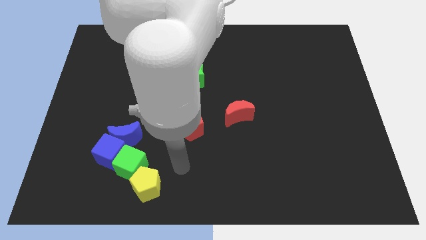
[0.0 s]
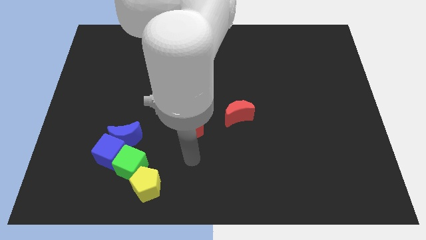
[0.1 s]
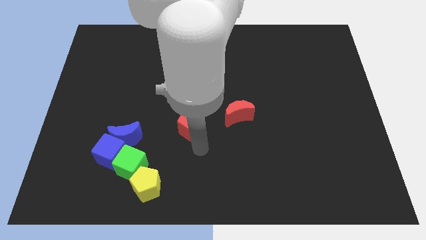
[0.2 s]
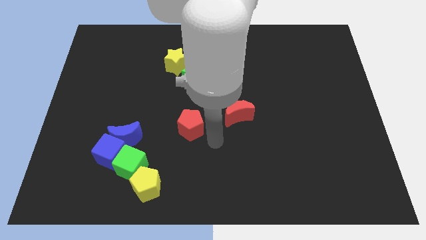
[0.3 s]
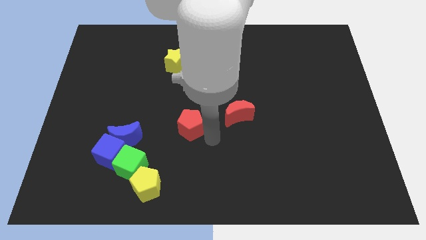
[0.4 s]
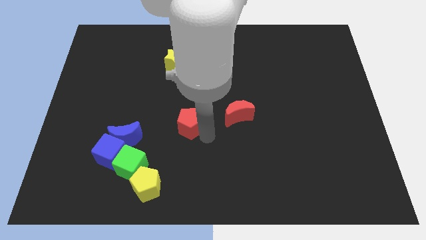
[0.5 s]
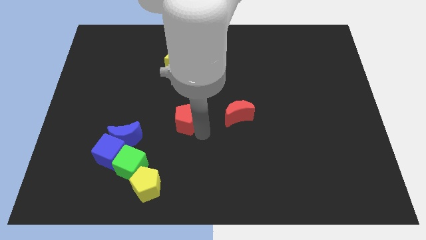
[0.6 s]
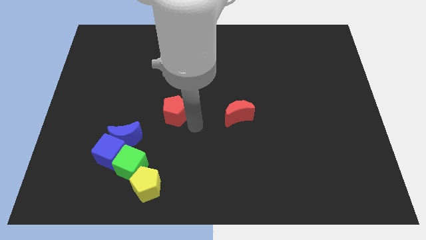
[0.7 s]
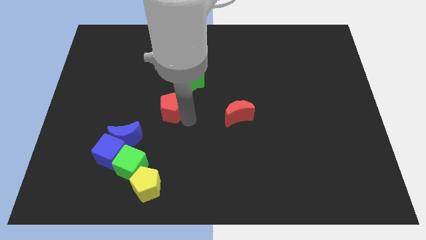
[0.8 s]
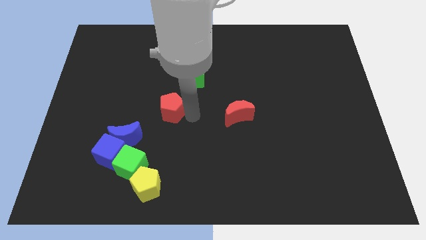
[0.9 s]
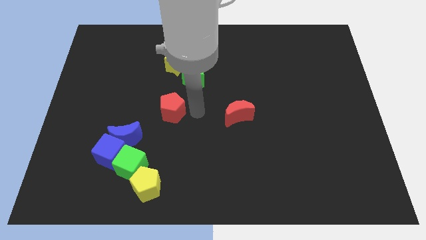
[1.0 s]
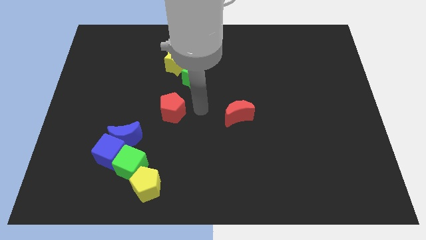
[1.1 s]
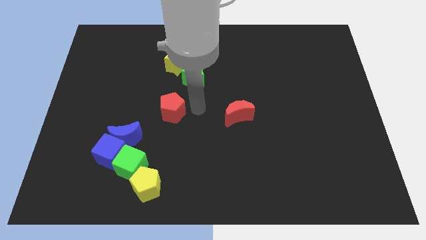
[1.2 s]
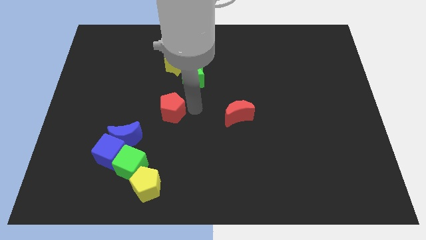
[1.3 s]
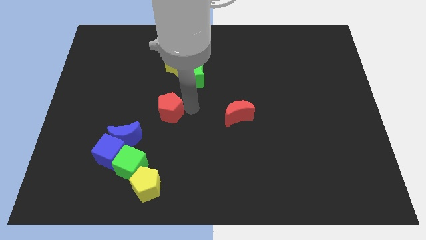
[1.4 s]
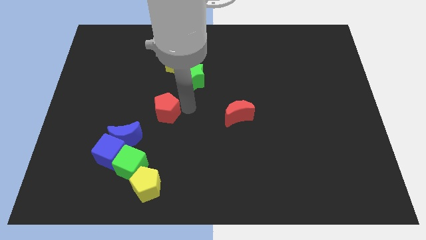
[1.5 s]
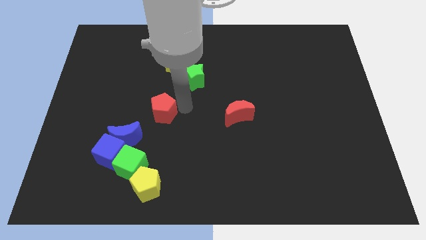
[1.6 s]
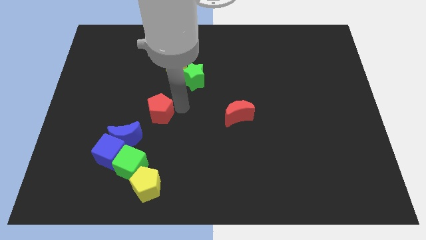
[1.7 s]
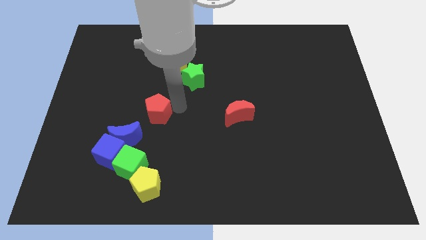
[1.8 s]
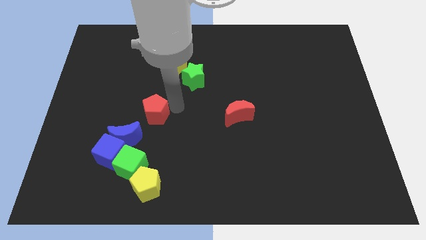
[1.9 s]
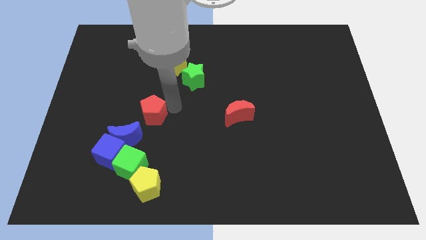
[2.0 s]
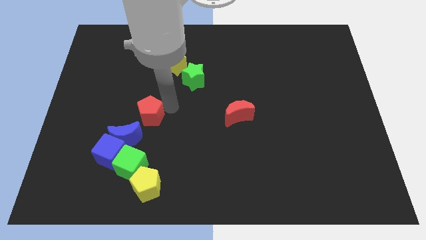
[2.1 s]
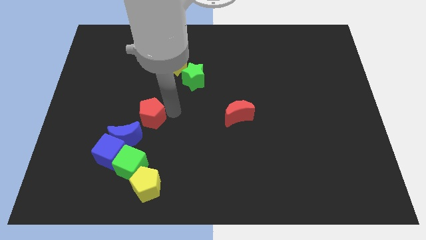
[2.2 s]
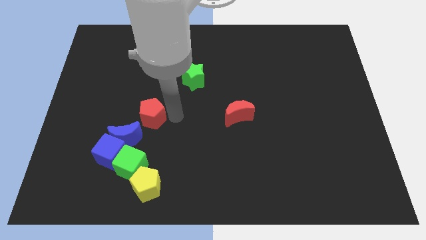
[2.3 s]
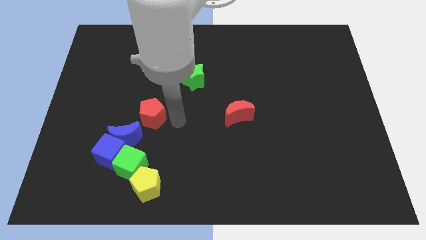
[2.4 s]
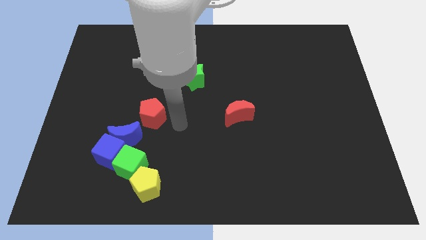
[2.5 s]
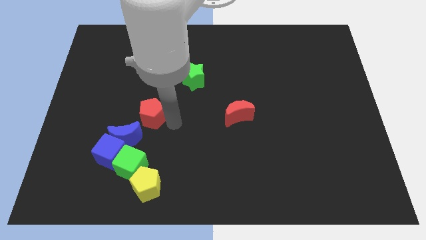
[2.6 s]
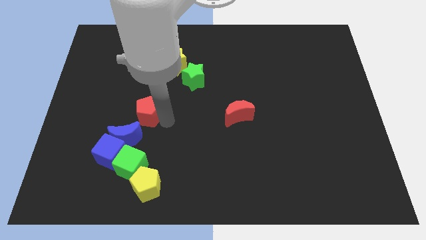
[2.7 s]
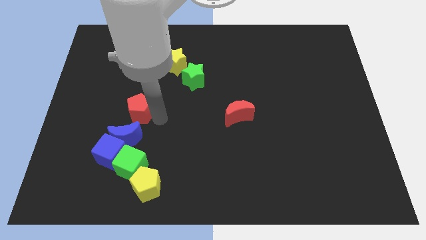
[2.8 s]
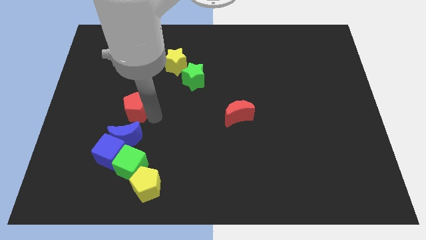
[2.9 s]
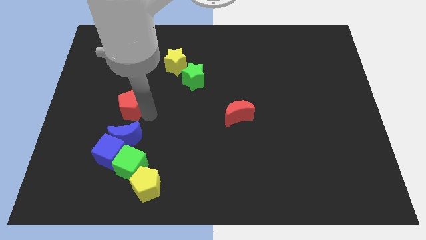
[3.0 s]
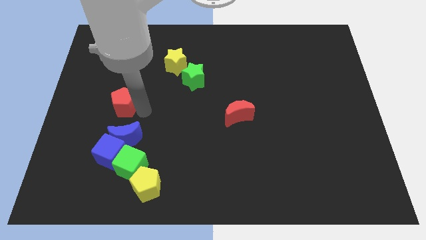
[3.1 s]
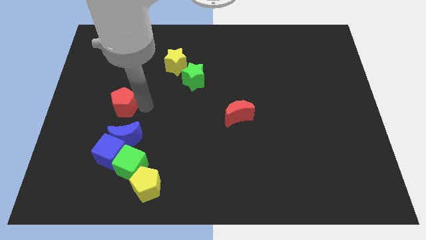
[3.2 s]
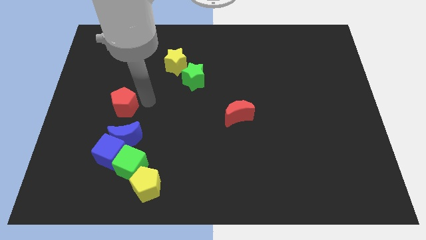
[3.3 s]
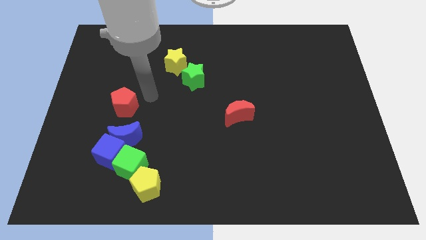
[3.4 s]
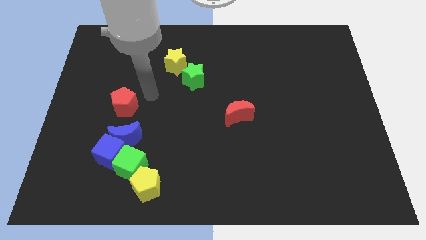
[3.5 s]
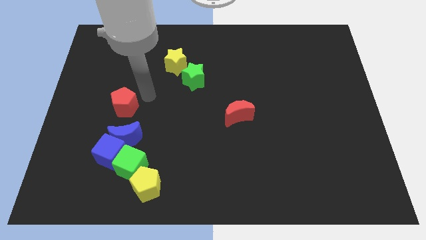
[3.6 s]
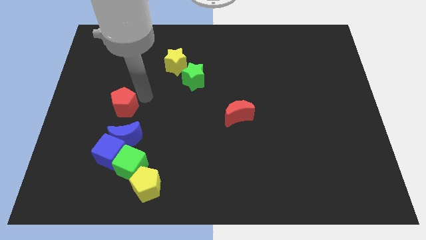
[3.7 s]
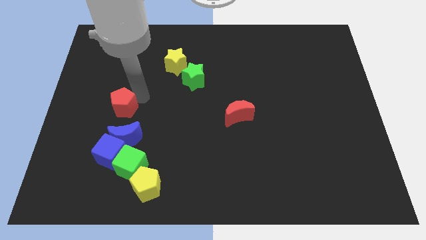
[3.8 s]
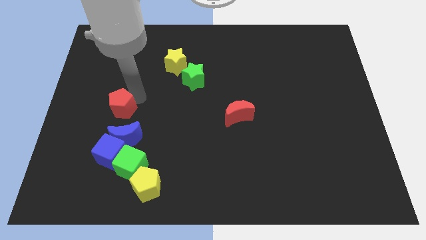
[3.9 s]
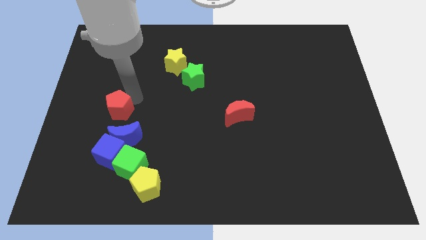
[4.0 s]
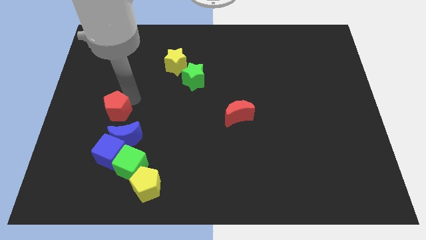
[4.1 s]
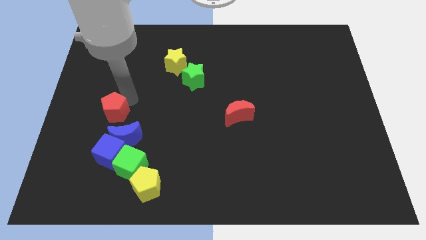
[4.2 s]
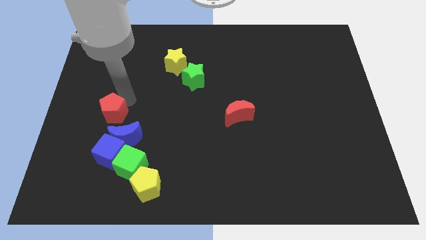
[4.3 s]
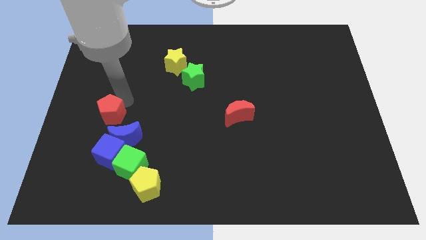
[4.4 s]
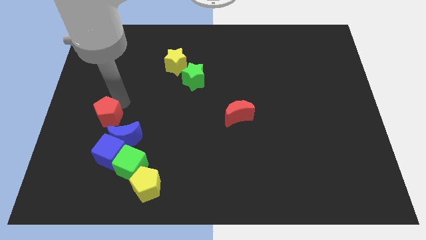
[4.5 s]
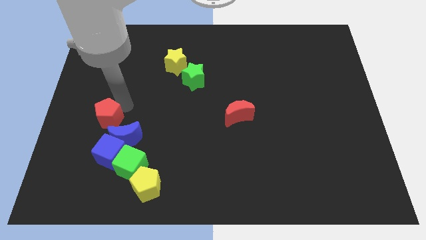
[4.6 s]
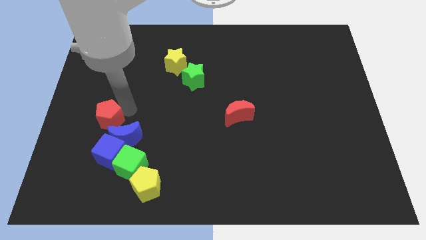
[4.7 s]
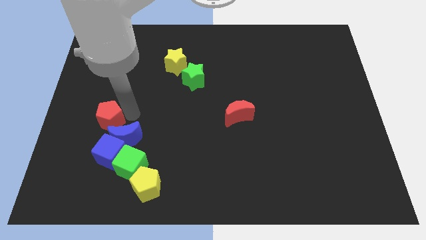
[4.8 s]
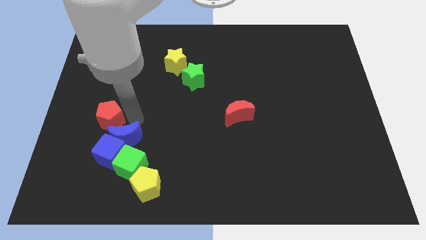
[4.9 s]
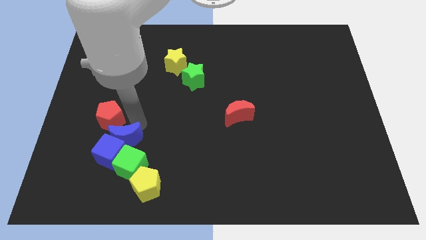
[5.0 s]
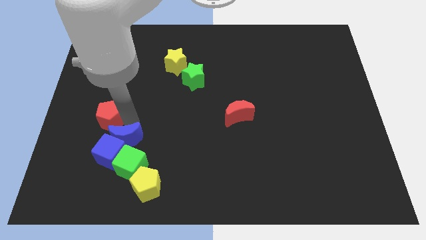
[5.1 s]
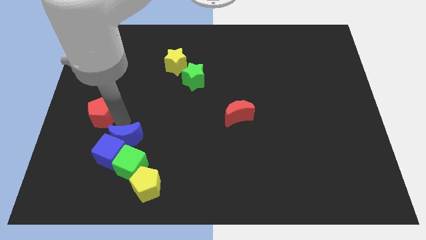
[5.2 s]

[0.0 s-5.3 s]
move the red pentagon to the center left
